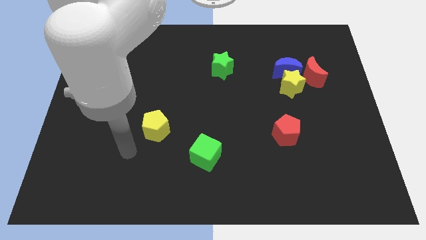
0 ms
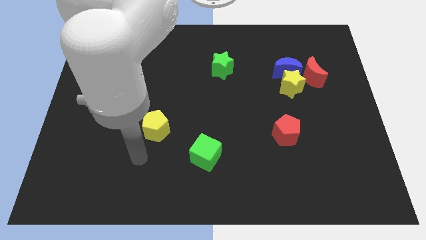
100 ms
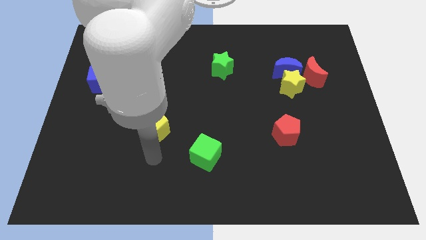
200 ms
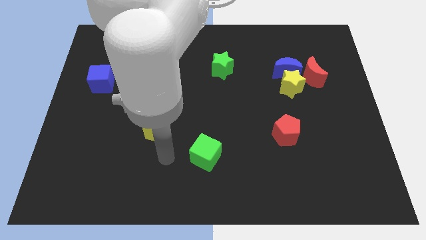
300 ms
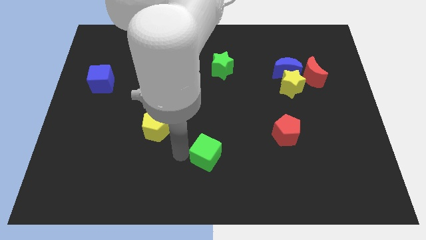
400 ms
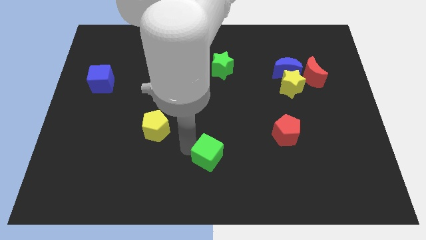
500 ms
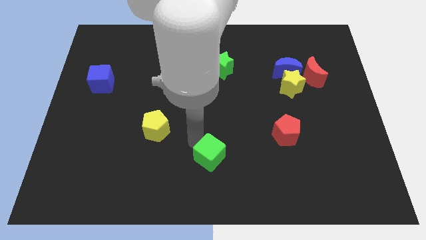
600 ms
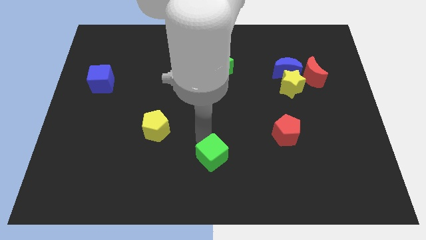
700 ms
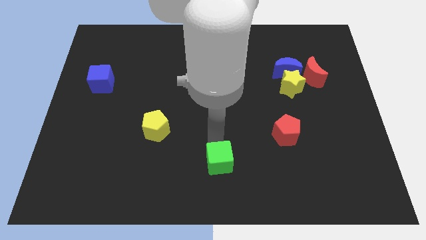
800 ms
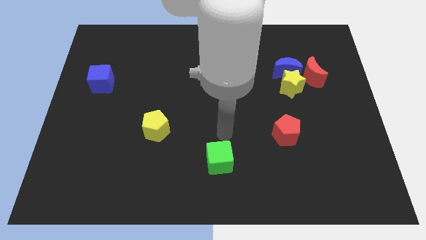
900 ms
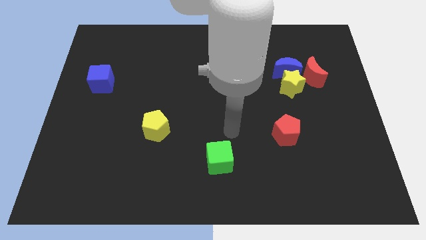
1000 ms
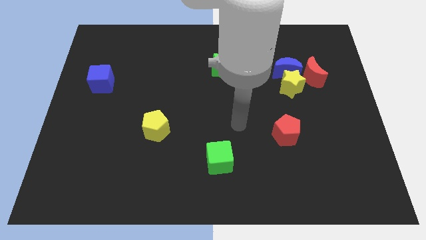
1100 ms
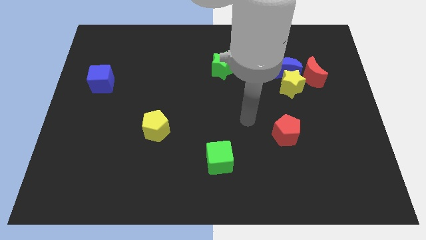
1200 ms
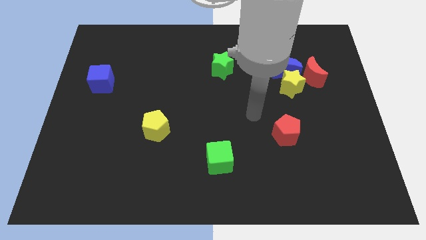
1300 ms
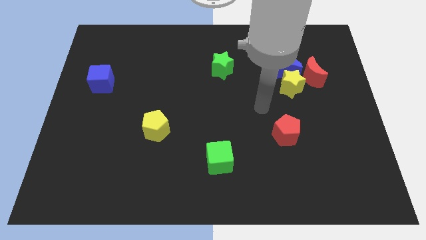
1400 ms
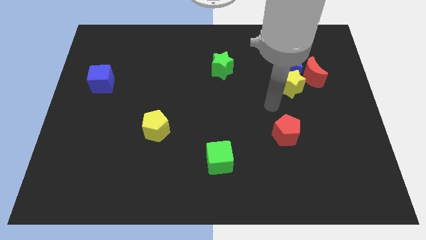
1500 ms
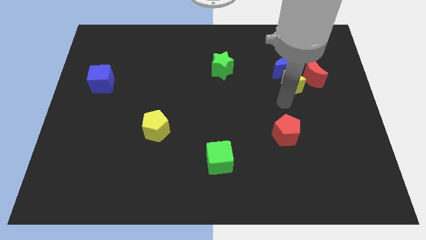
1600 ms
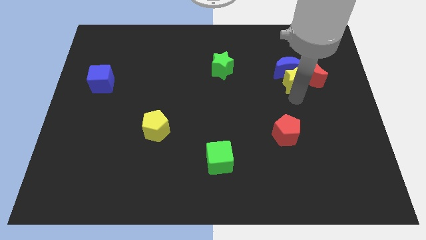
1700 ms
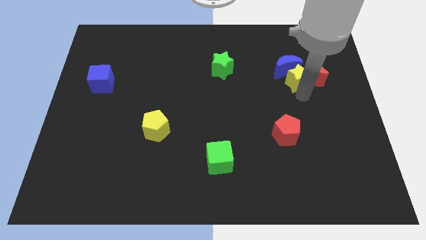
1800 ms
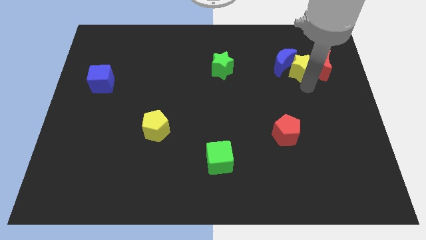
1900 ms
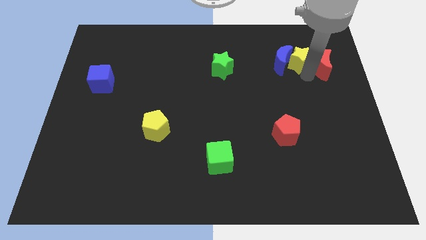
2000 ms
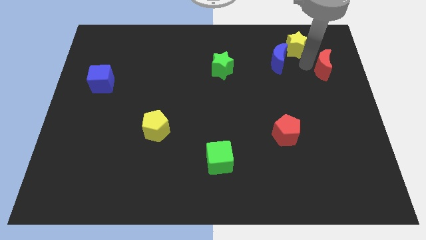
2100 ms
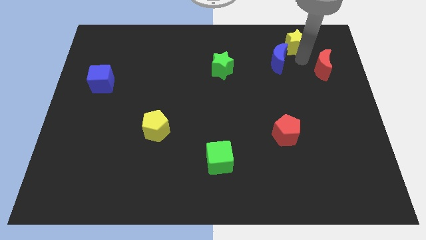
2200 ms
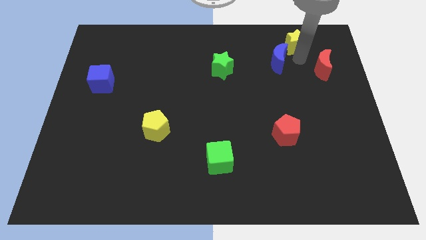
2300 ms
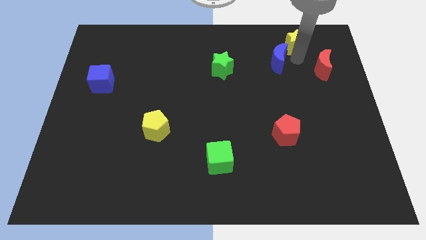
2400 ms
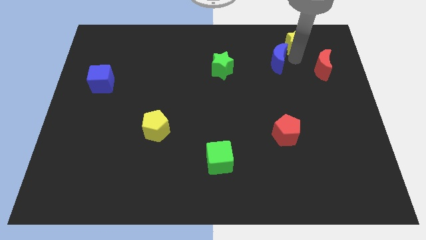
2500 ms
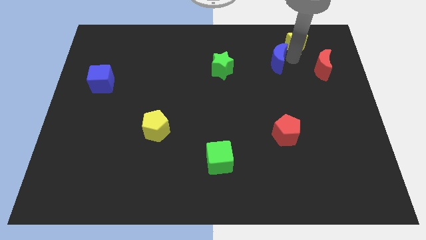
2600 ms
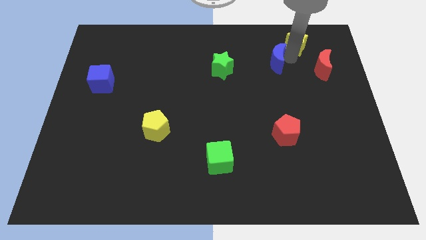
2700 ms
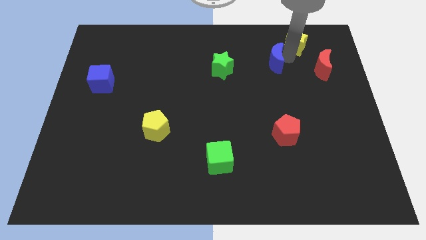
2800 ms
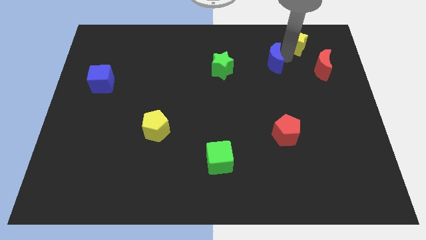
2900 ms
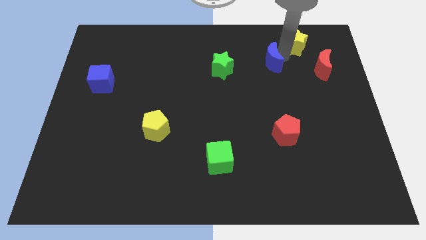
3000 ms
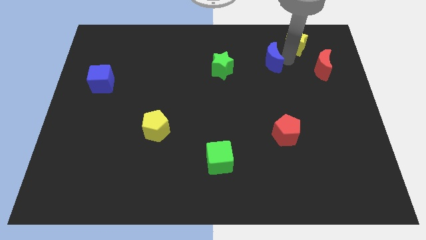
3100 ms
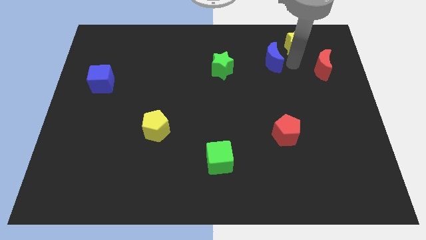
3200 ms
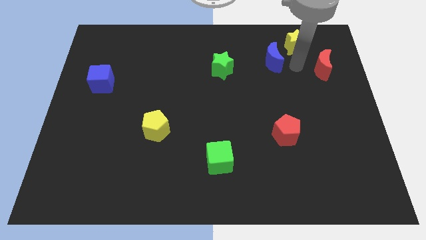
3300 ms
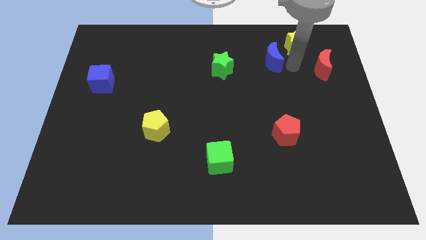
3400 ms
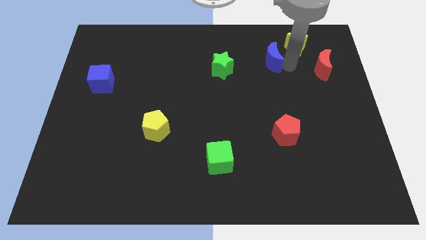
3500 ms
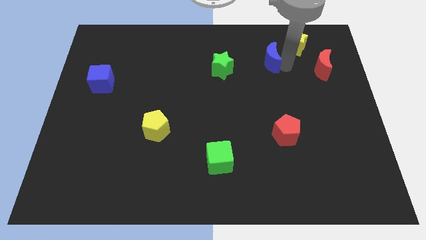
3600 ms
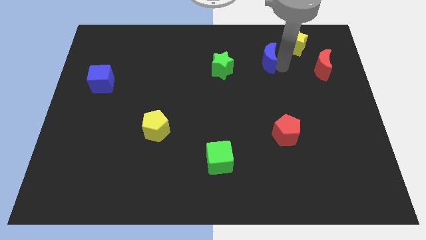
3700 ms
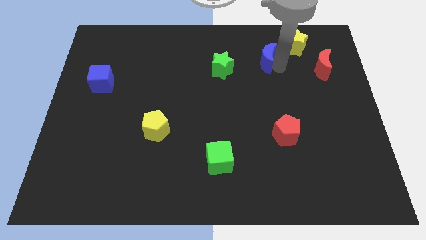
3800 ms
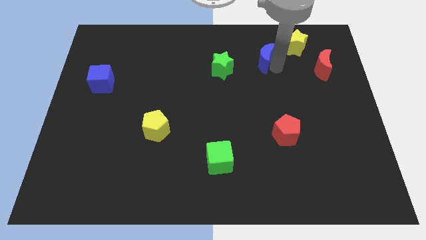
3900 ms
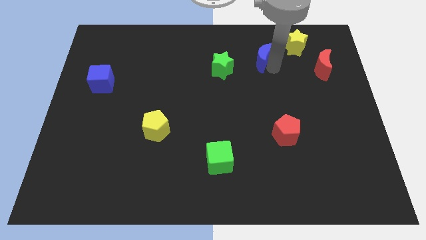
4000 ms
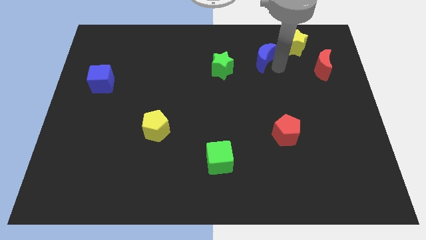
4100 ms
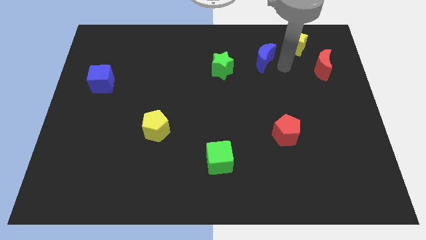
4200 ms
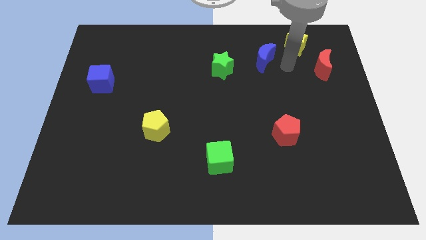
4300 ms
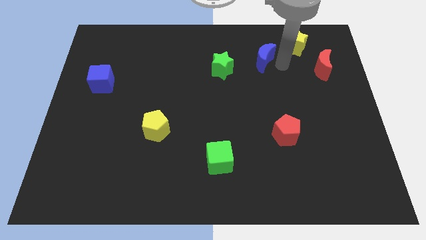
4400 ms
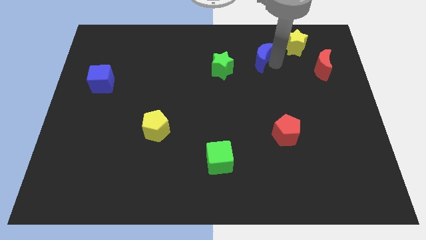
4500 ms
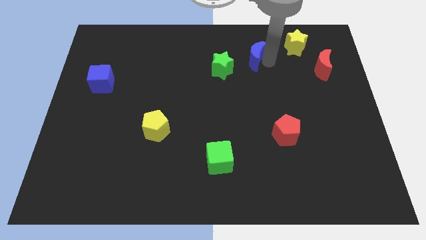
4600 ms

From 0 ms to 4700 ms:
move the blue moon to the top right of the green star

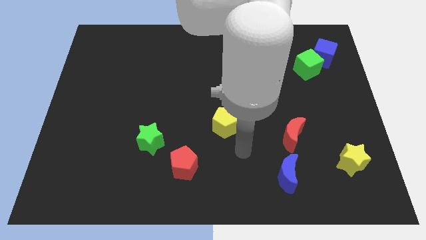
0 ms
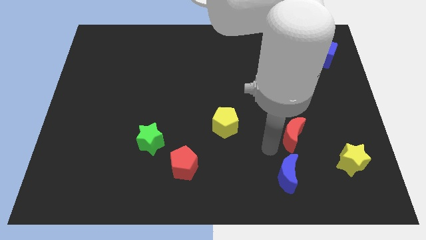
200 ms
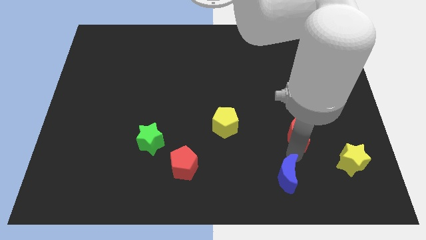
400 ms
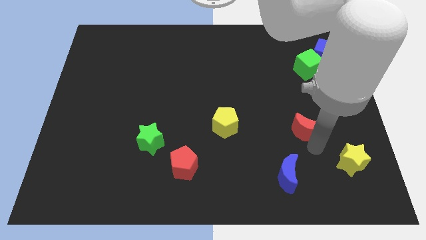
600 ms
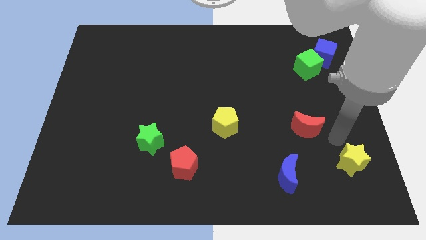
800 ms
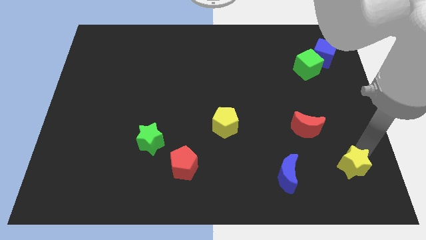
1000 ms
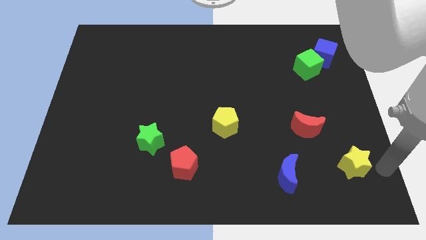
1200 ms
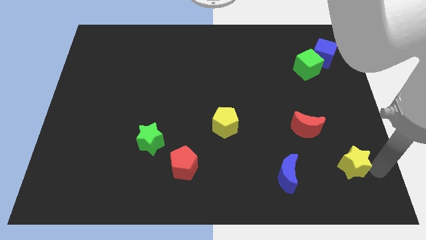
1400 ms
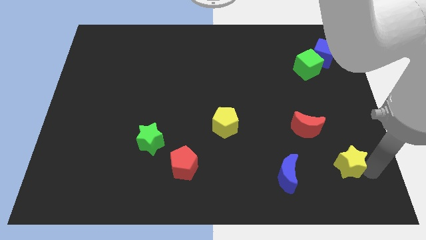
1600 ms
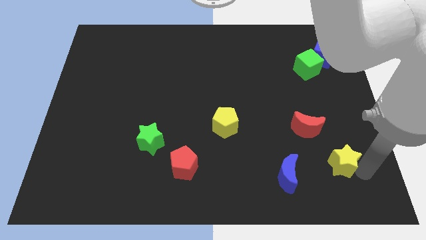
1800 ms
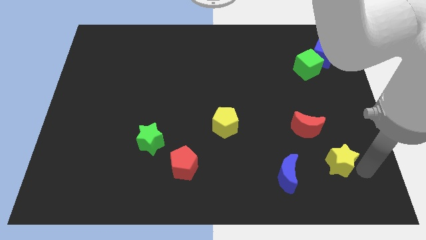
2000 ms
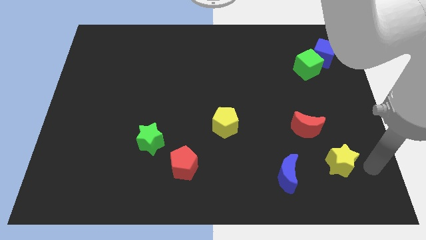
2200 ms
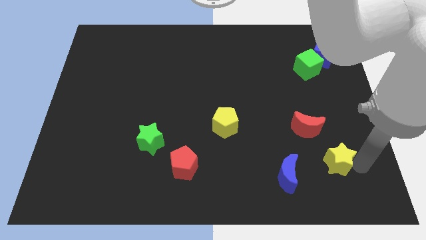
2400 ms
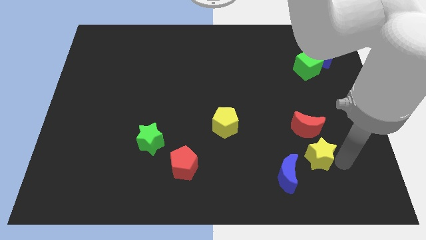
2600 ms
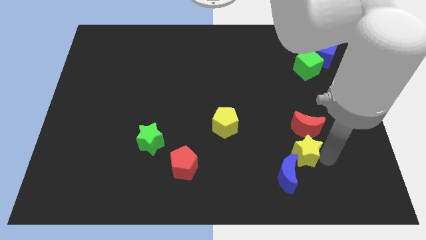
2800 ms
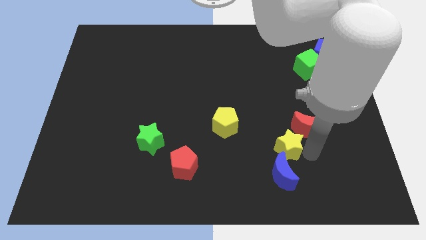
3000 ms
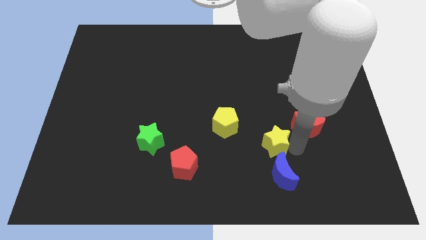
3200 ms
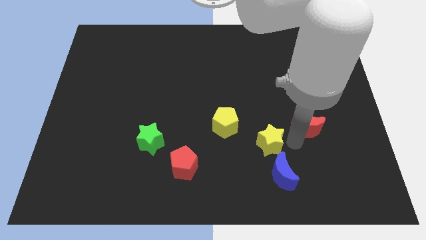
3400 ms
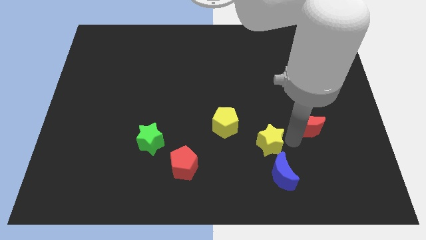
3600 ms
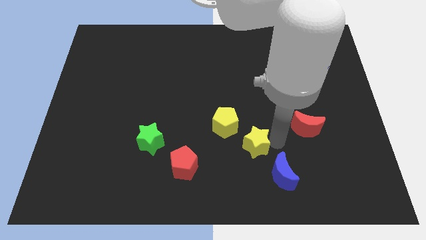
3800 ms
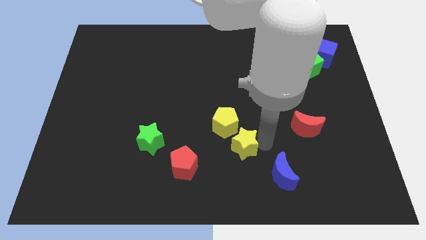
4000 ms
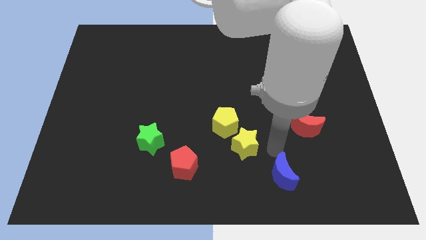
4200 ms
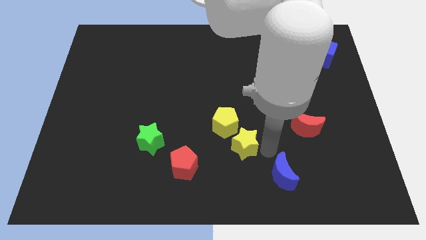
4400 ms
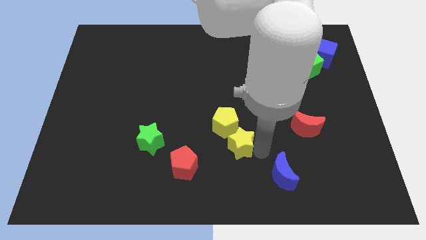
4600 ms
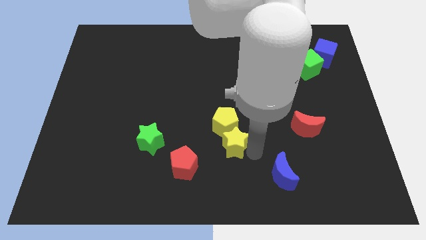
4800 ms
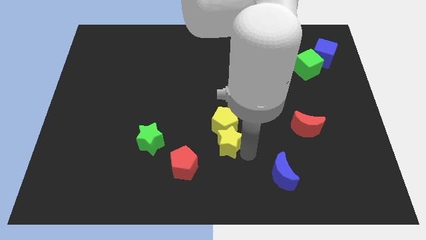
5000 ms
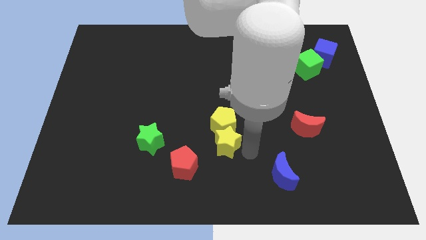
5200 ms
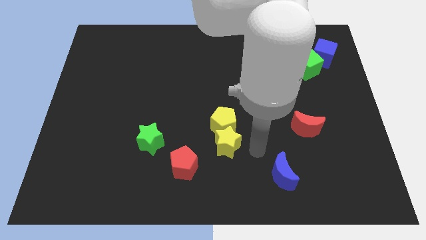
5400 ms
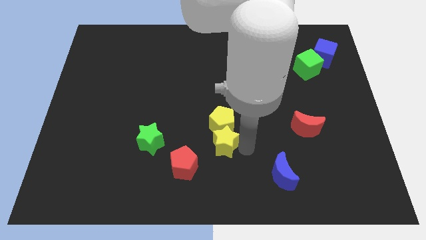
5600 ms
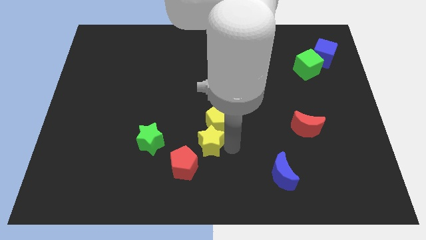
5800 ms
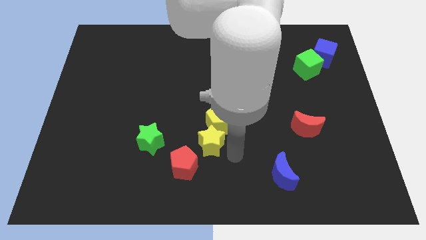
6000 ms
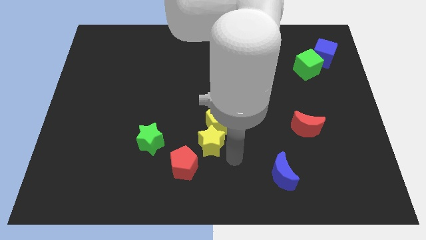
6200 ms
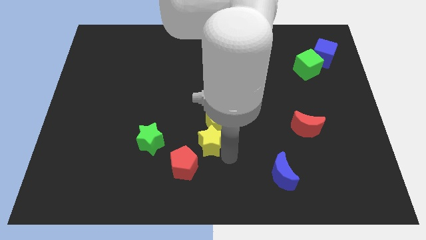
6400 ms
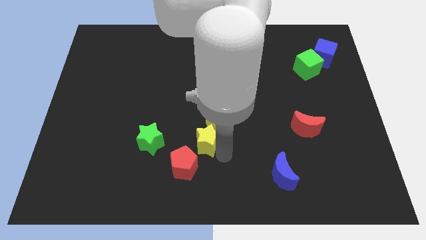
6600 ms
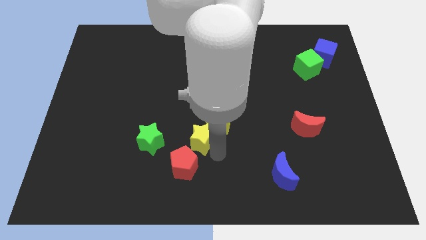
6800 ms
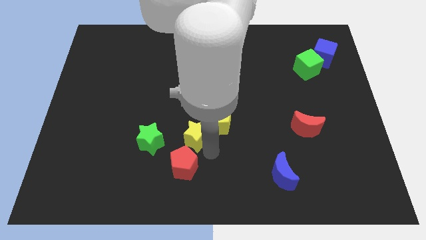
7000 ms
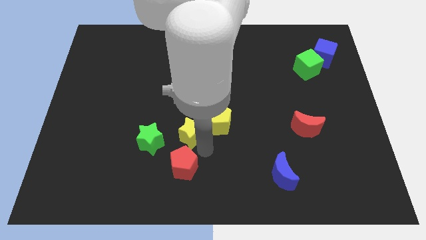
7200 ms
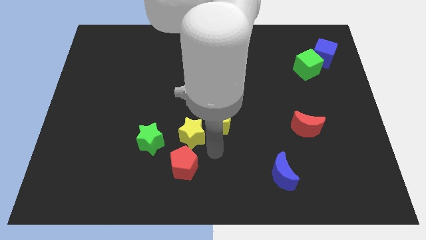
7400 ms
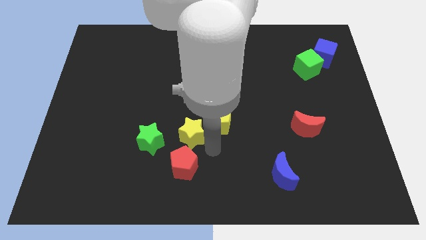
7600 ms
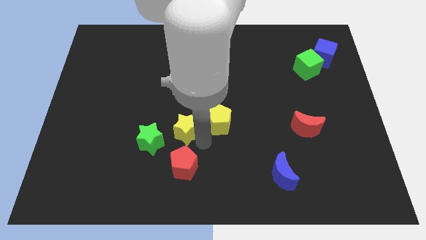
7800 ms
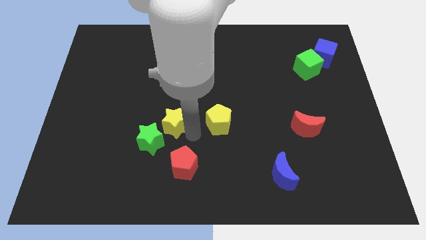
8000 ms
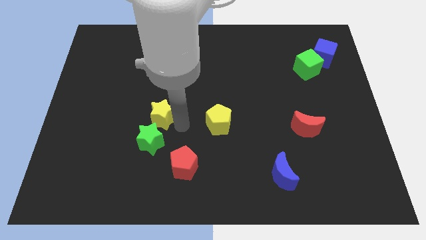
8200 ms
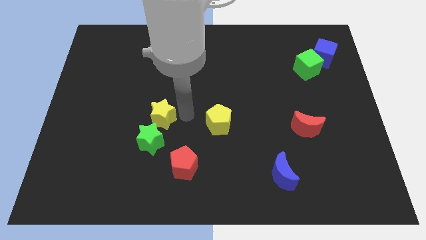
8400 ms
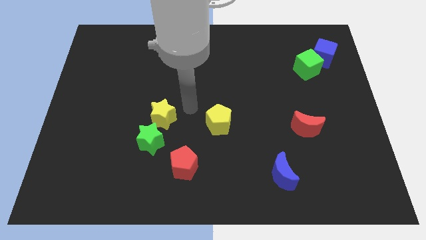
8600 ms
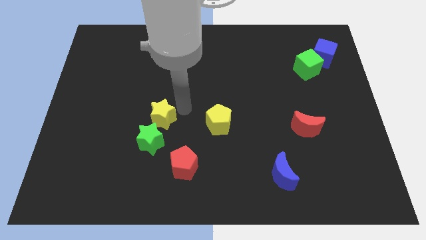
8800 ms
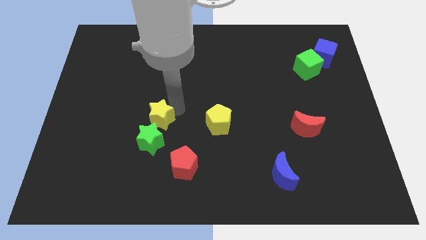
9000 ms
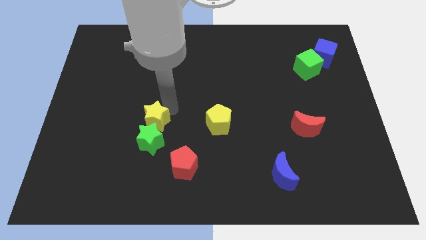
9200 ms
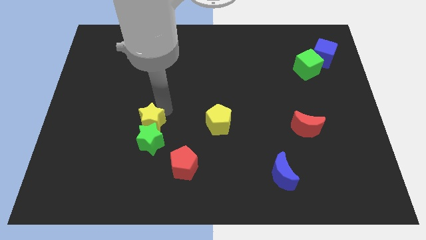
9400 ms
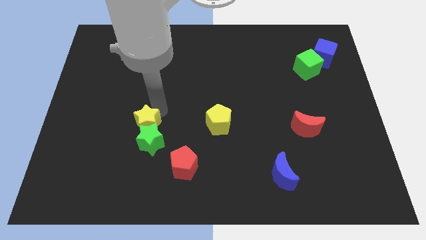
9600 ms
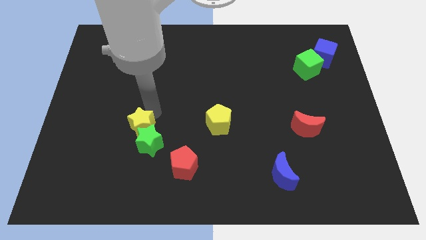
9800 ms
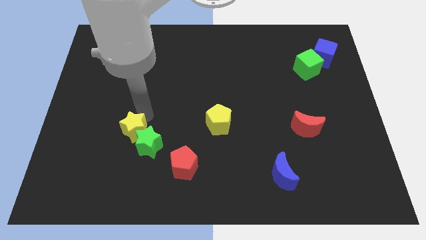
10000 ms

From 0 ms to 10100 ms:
put the yellow star to the left side of the green star
